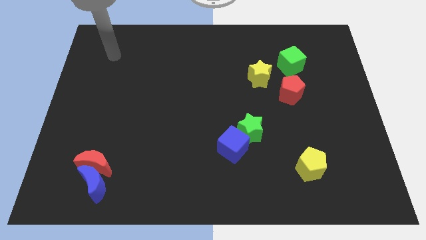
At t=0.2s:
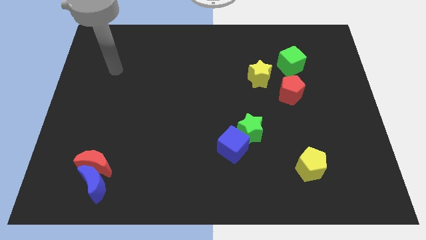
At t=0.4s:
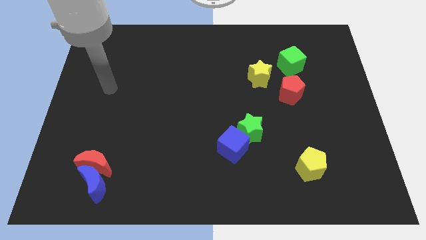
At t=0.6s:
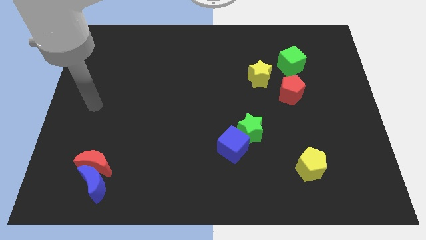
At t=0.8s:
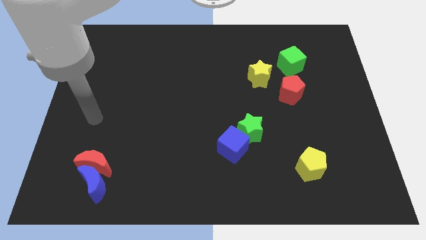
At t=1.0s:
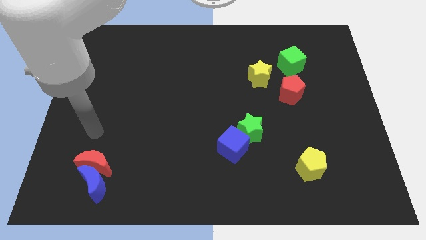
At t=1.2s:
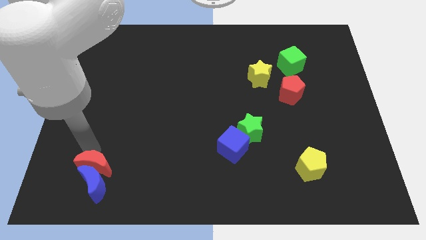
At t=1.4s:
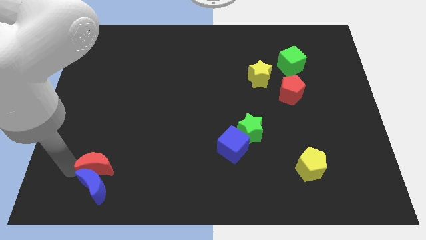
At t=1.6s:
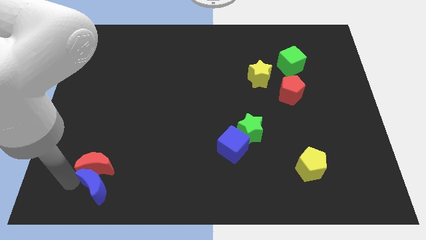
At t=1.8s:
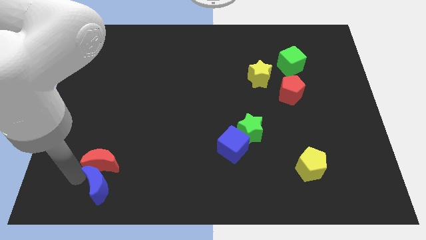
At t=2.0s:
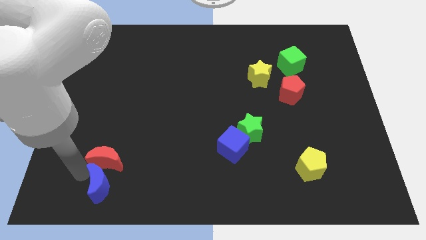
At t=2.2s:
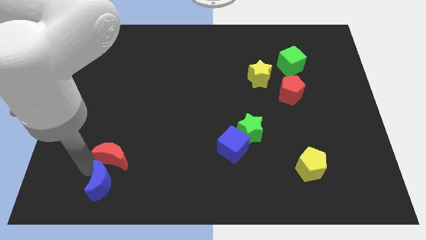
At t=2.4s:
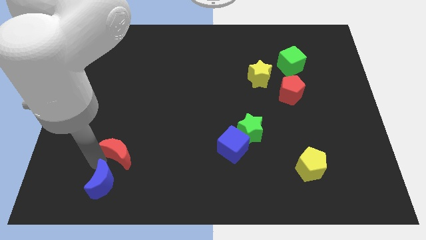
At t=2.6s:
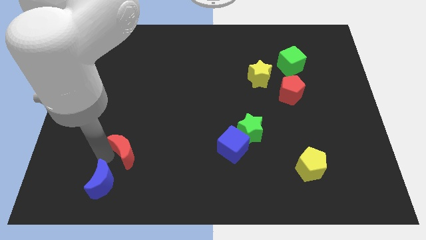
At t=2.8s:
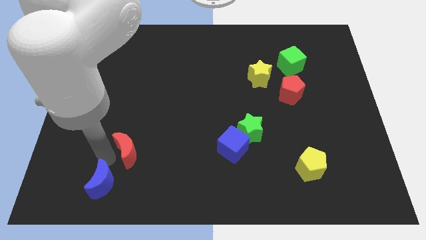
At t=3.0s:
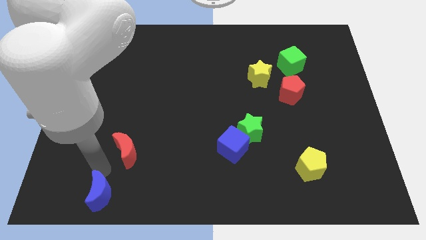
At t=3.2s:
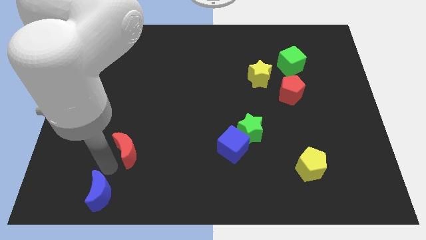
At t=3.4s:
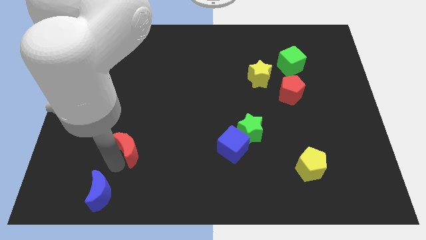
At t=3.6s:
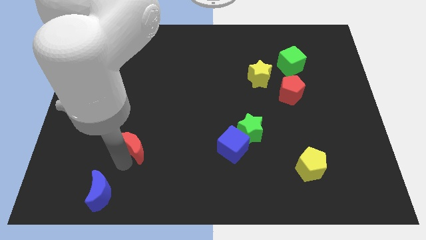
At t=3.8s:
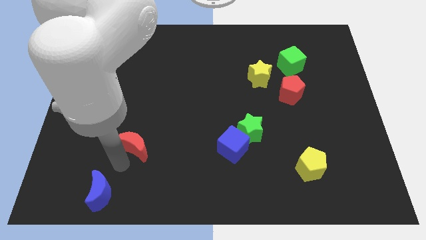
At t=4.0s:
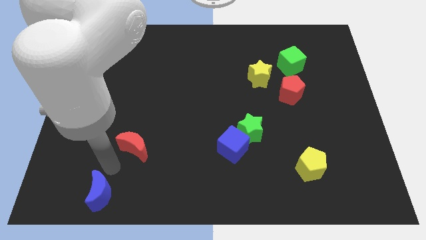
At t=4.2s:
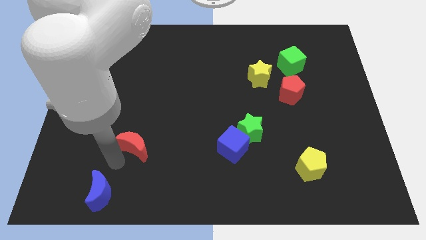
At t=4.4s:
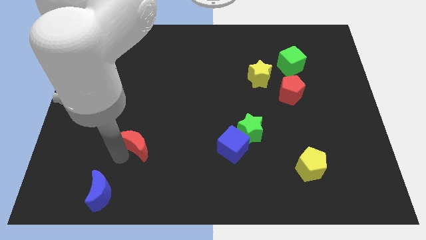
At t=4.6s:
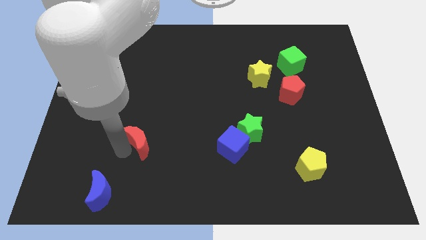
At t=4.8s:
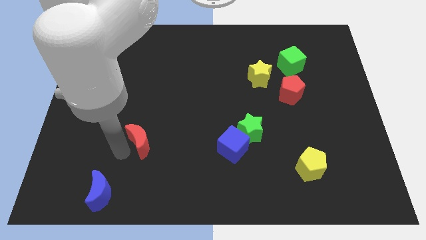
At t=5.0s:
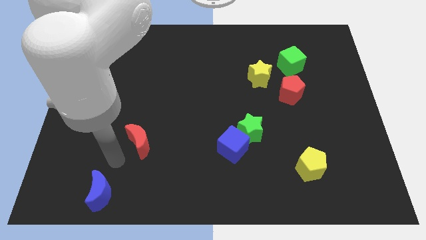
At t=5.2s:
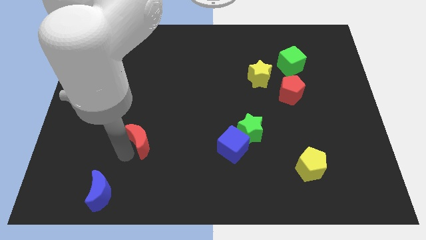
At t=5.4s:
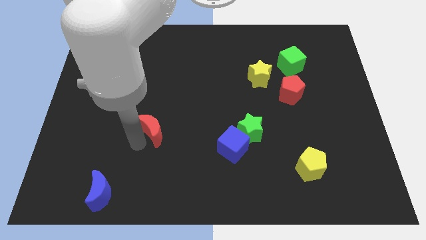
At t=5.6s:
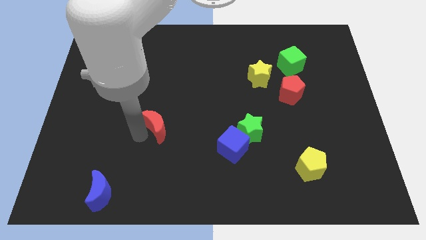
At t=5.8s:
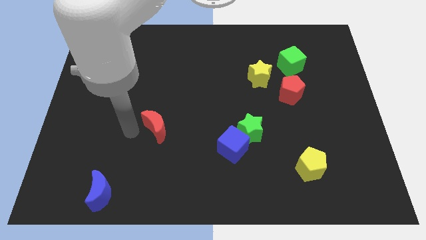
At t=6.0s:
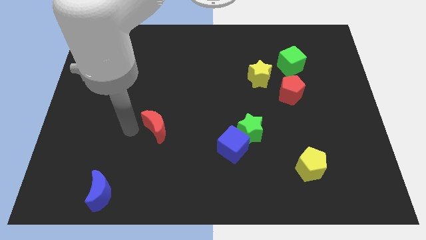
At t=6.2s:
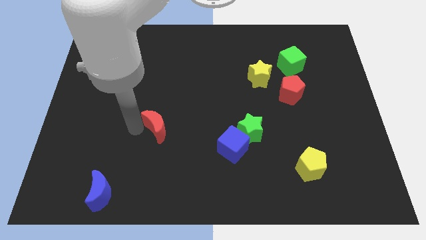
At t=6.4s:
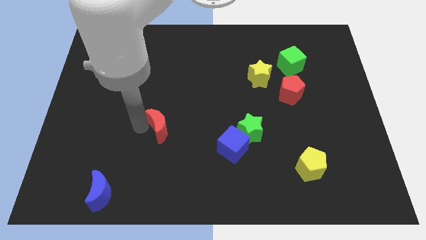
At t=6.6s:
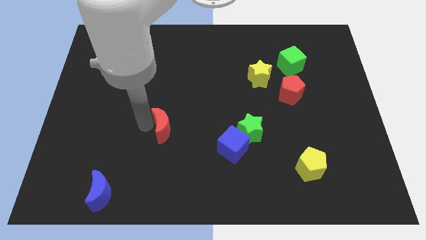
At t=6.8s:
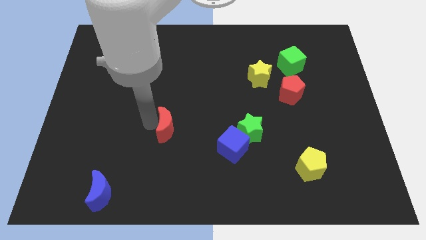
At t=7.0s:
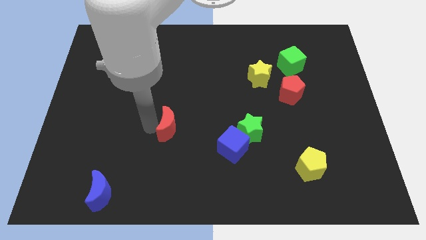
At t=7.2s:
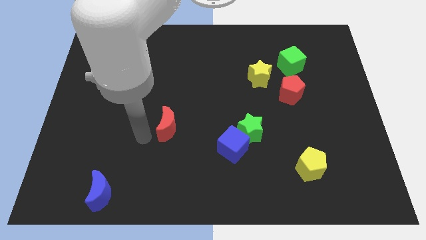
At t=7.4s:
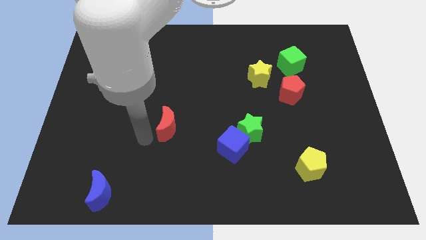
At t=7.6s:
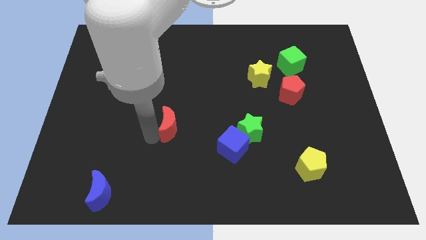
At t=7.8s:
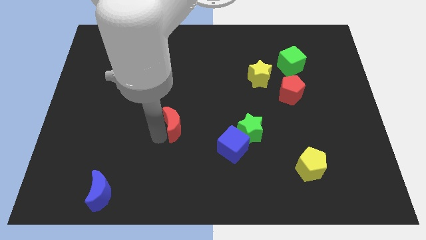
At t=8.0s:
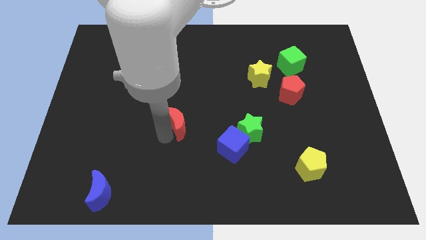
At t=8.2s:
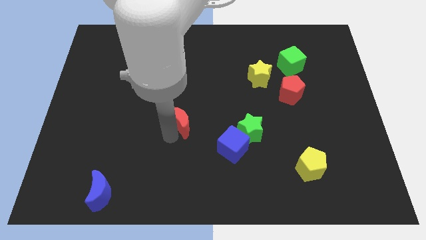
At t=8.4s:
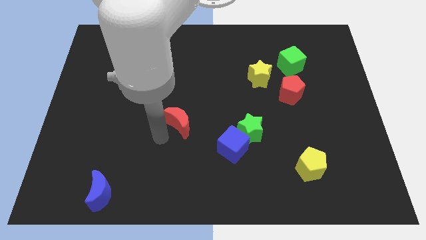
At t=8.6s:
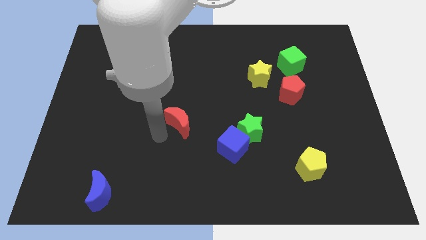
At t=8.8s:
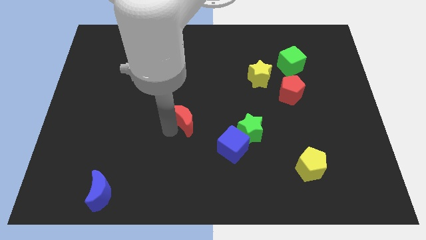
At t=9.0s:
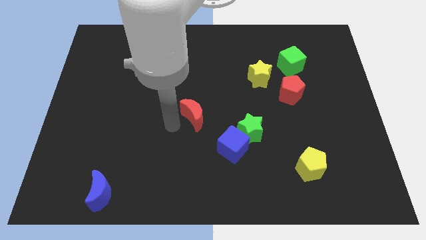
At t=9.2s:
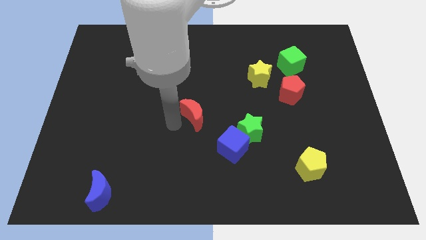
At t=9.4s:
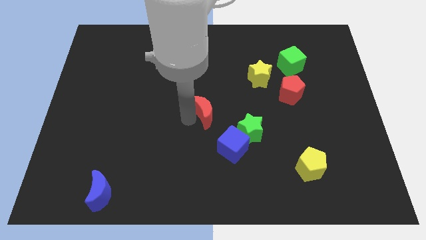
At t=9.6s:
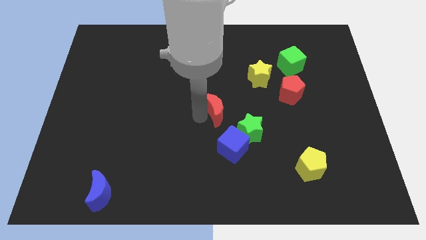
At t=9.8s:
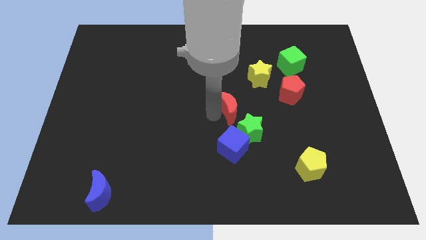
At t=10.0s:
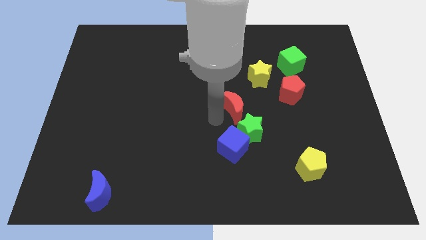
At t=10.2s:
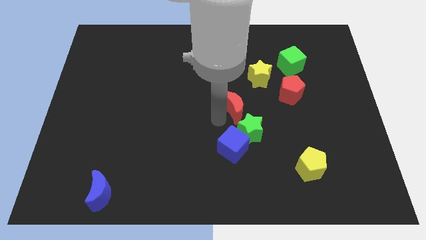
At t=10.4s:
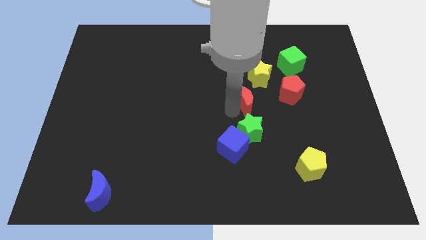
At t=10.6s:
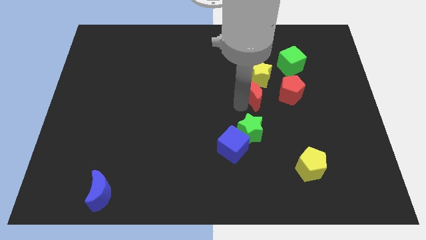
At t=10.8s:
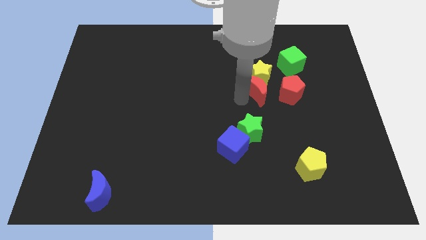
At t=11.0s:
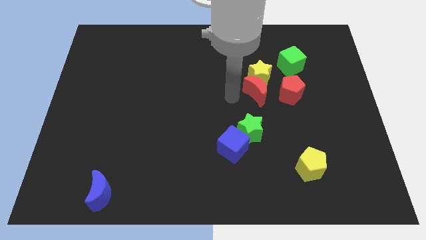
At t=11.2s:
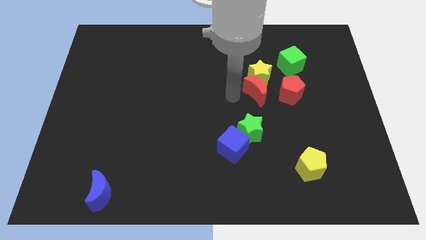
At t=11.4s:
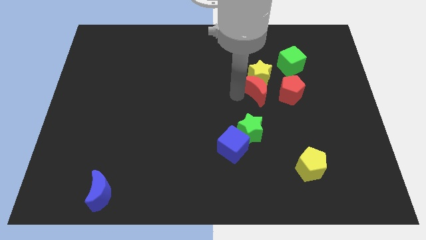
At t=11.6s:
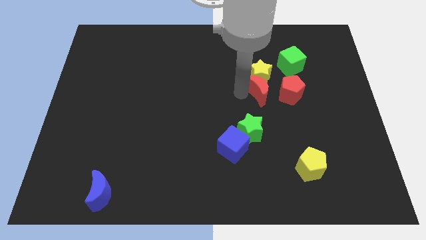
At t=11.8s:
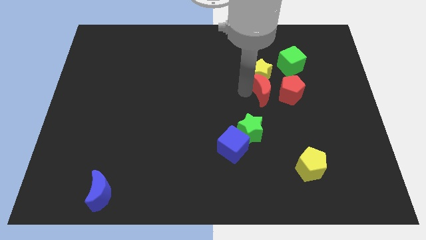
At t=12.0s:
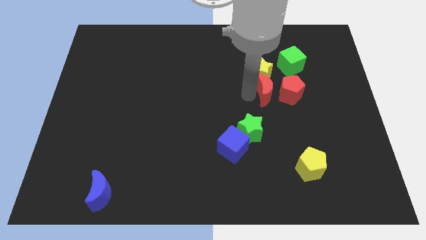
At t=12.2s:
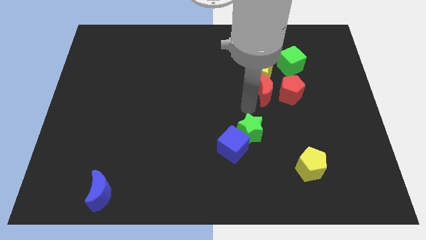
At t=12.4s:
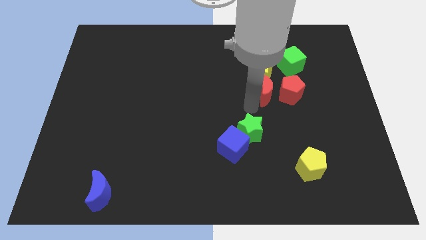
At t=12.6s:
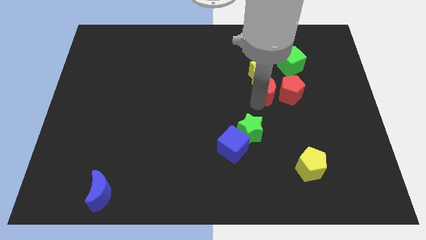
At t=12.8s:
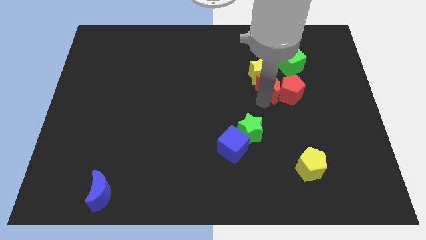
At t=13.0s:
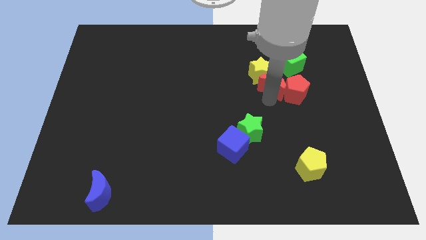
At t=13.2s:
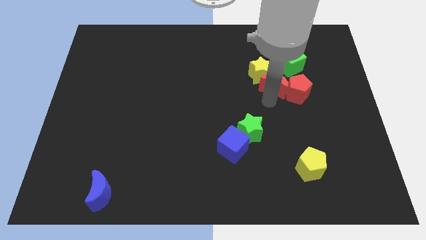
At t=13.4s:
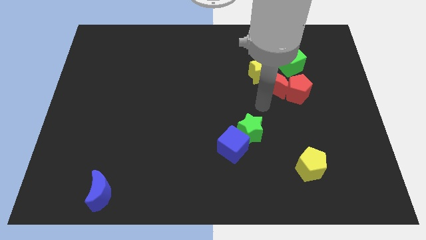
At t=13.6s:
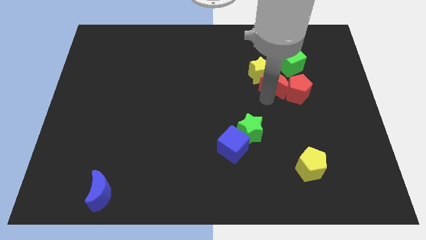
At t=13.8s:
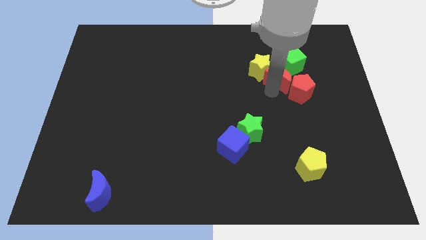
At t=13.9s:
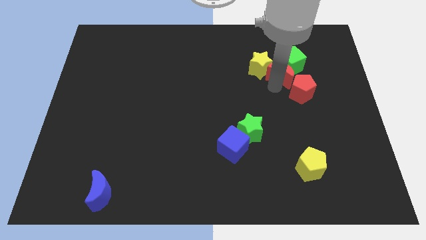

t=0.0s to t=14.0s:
put the red moon close to the green cube

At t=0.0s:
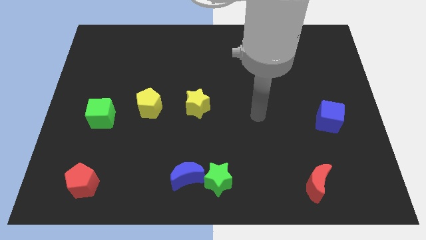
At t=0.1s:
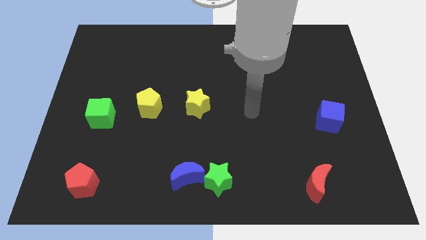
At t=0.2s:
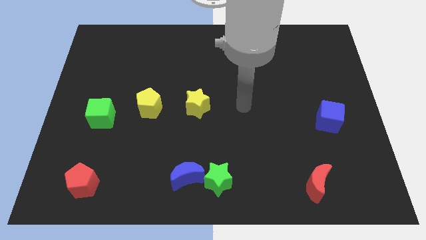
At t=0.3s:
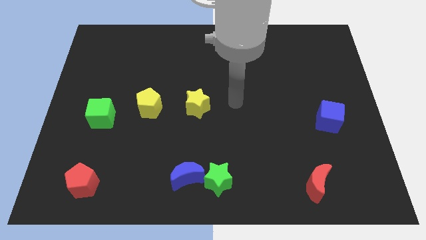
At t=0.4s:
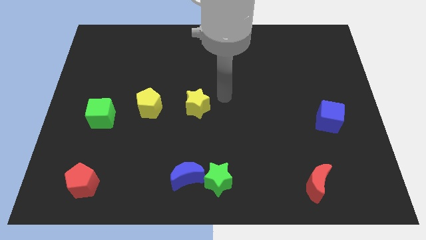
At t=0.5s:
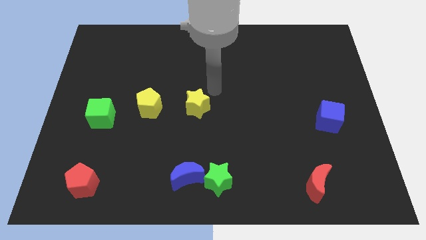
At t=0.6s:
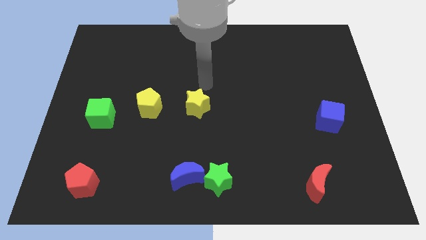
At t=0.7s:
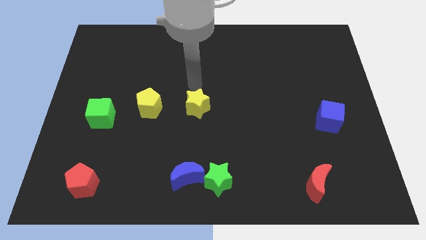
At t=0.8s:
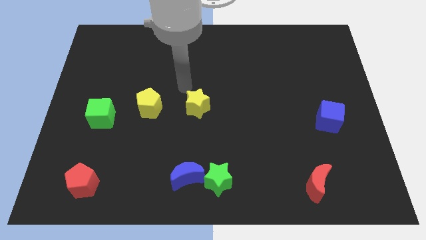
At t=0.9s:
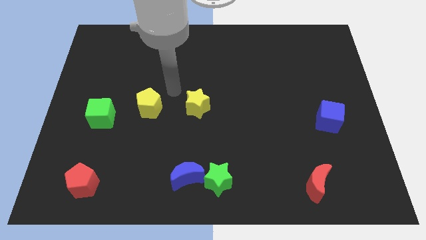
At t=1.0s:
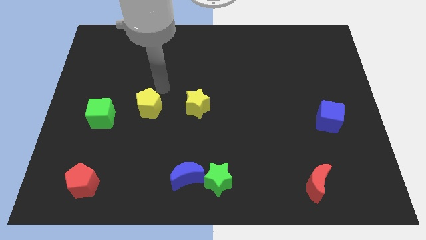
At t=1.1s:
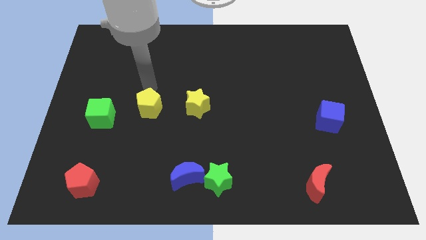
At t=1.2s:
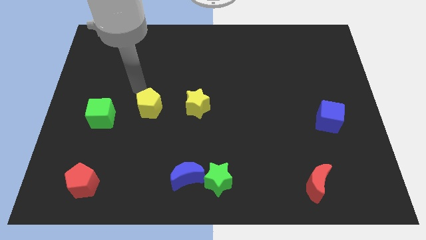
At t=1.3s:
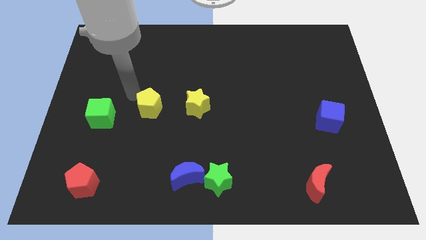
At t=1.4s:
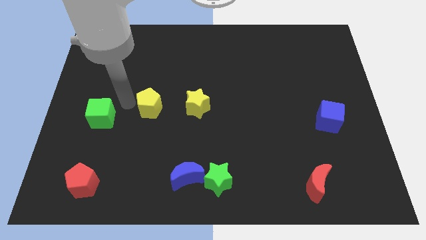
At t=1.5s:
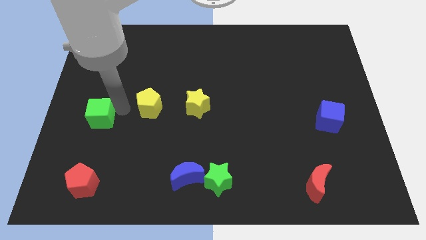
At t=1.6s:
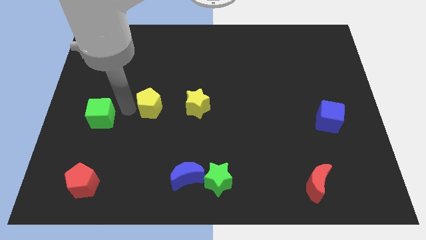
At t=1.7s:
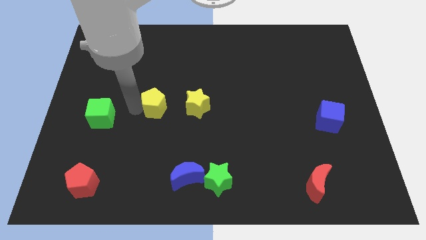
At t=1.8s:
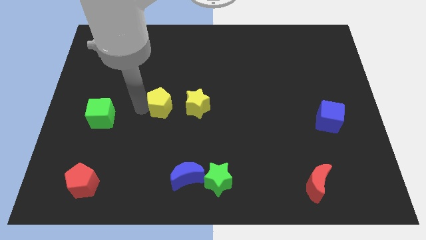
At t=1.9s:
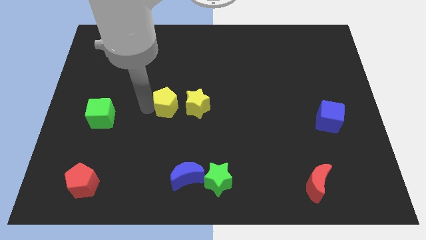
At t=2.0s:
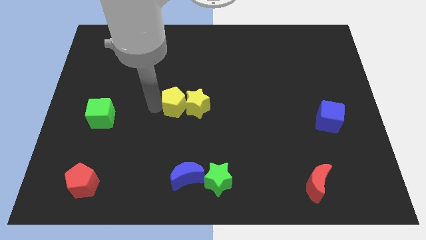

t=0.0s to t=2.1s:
slide the yellow pentagon towards the yellow star
